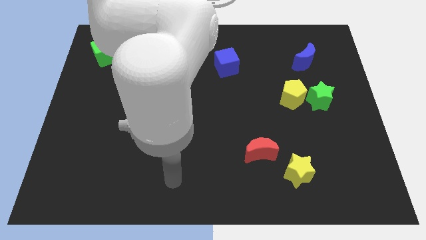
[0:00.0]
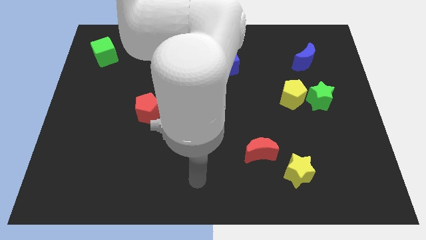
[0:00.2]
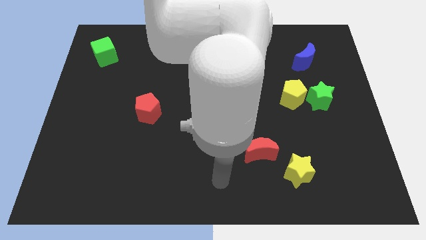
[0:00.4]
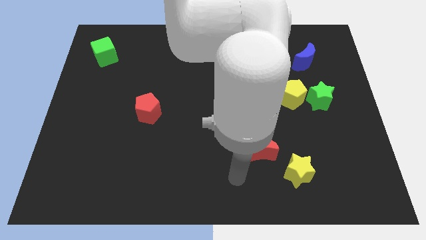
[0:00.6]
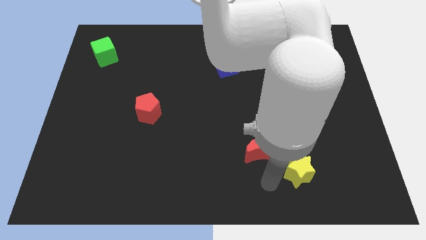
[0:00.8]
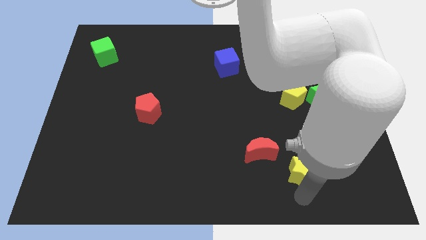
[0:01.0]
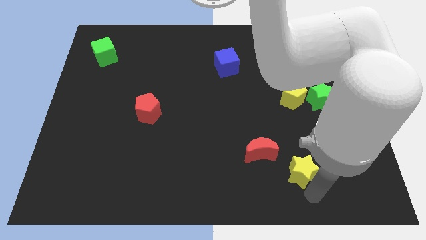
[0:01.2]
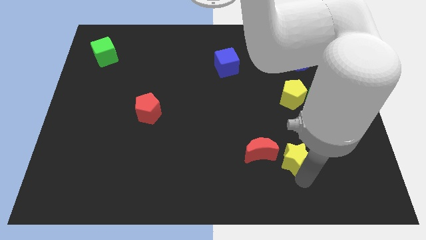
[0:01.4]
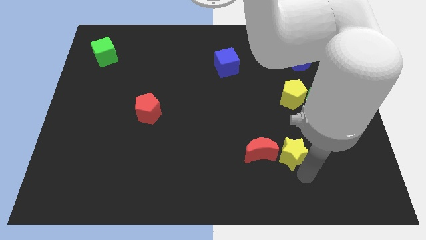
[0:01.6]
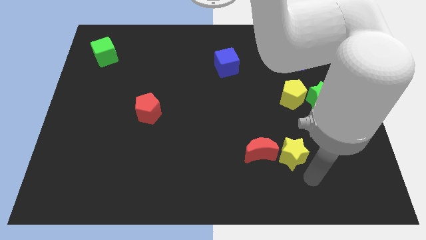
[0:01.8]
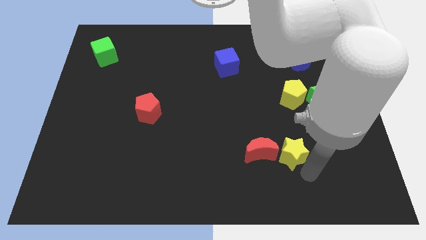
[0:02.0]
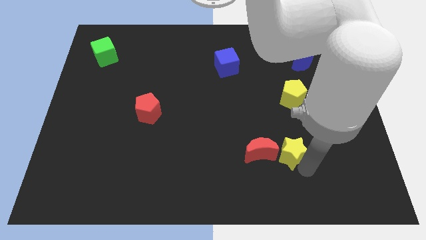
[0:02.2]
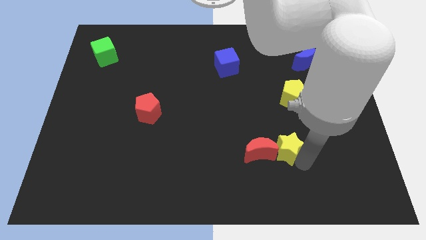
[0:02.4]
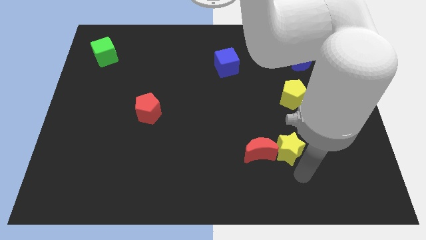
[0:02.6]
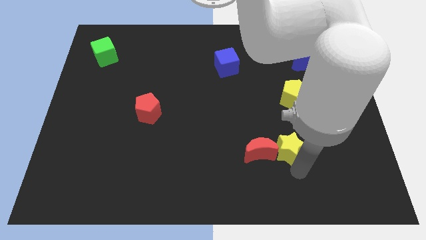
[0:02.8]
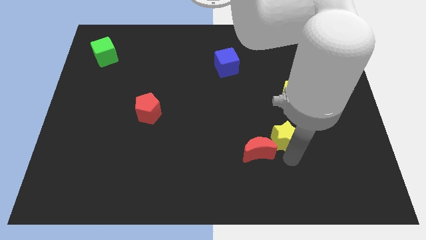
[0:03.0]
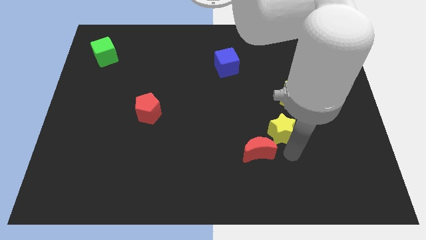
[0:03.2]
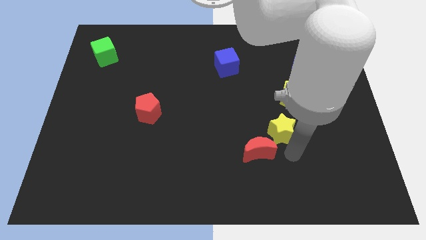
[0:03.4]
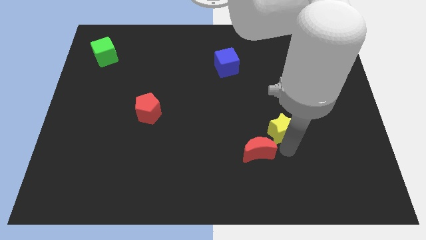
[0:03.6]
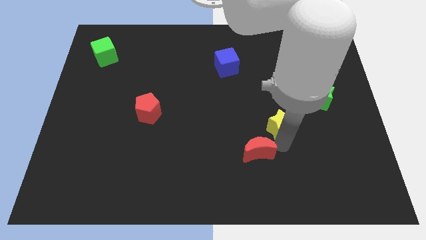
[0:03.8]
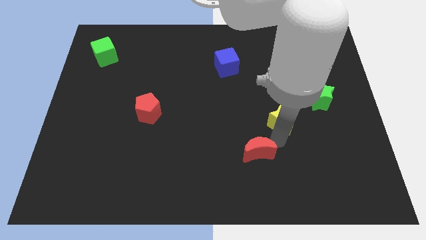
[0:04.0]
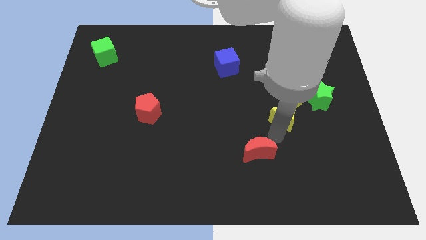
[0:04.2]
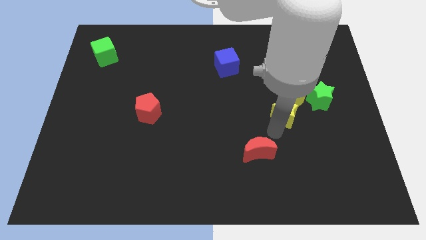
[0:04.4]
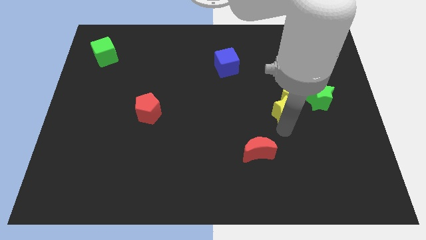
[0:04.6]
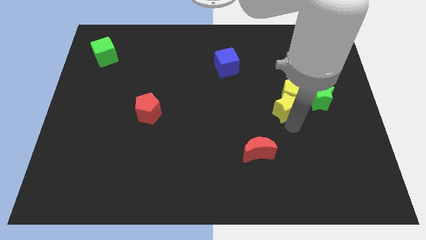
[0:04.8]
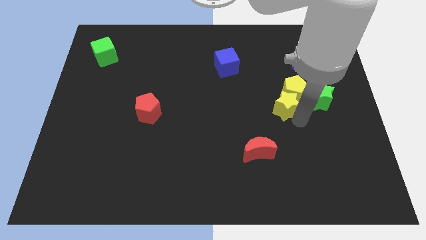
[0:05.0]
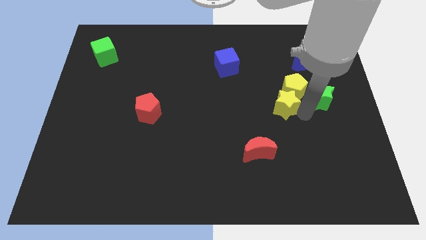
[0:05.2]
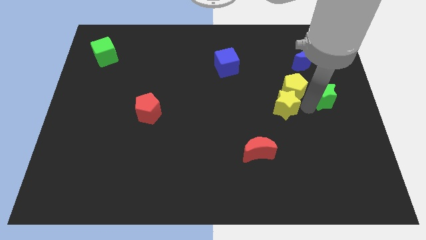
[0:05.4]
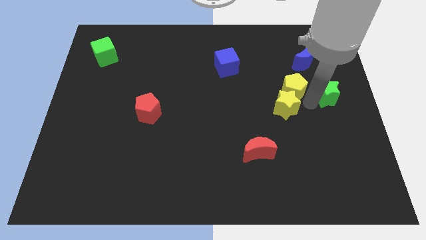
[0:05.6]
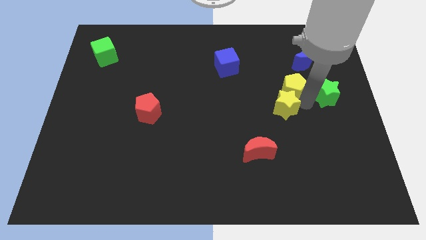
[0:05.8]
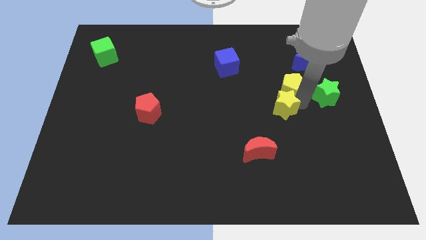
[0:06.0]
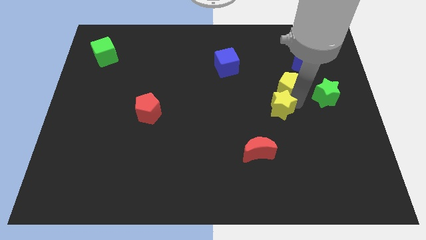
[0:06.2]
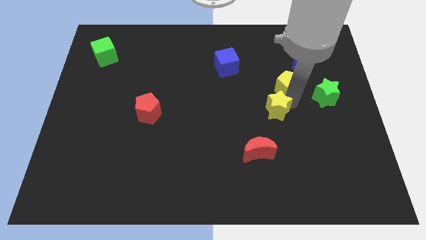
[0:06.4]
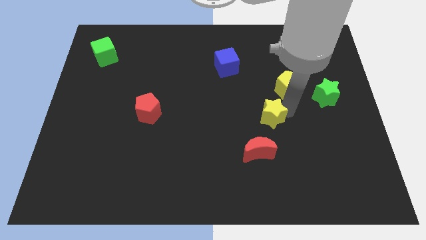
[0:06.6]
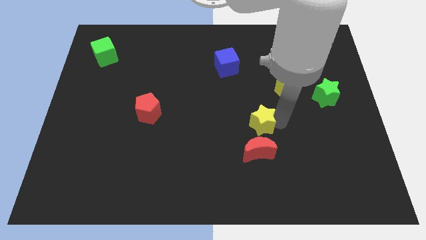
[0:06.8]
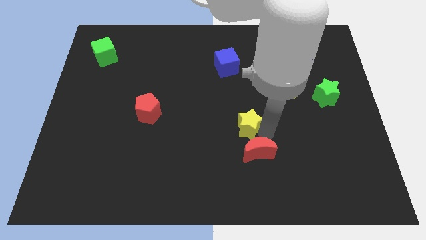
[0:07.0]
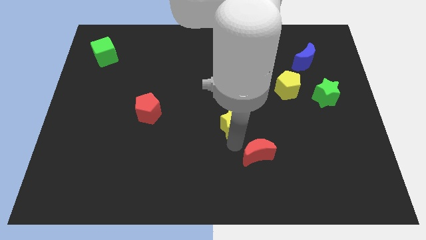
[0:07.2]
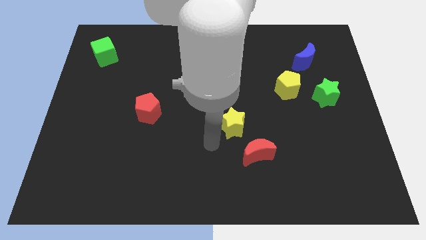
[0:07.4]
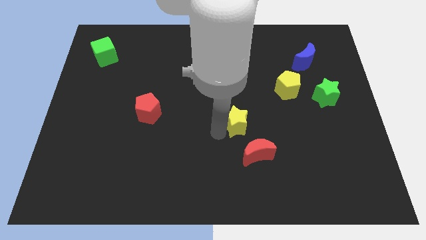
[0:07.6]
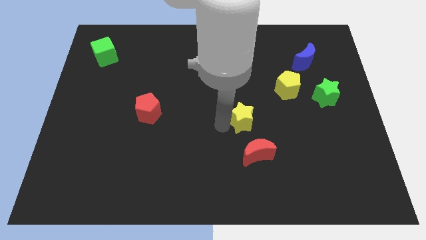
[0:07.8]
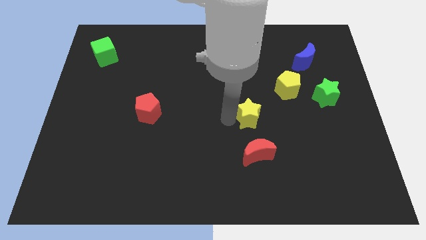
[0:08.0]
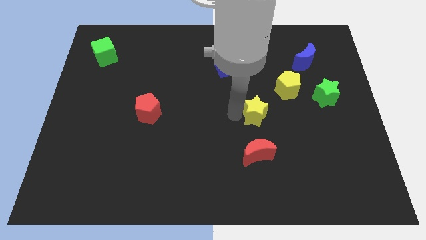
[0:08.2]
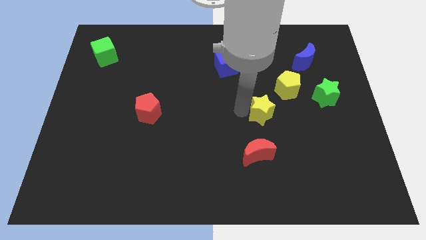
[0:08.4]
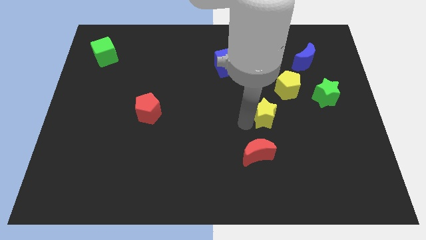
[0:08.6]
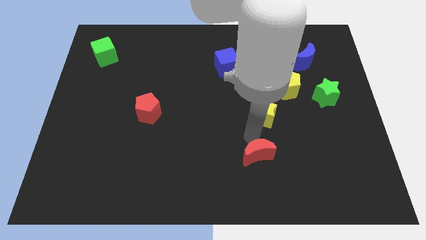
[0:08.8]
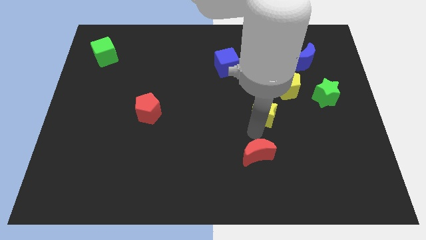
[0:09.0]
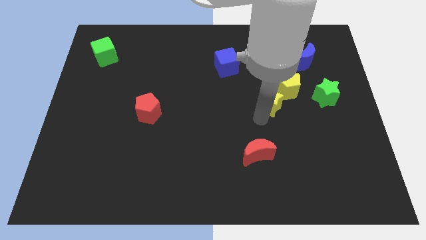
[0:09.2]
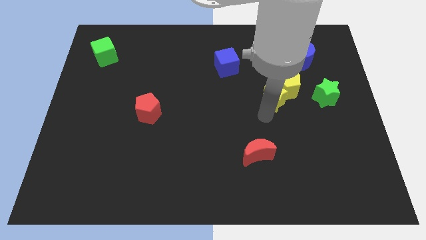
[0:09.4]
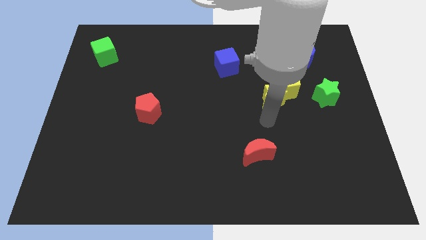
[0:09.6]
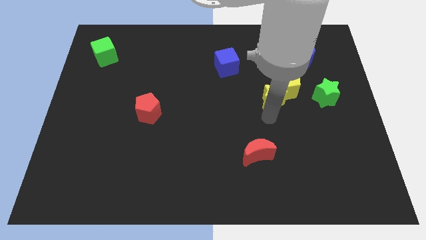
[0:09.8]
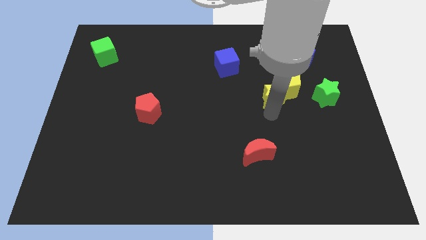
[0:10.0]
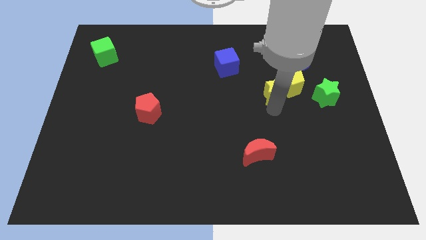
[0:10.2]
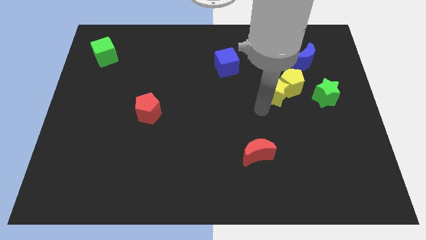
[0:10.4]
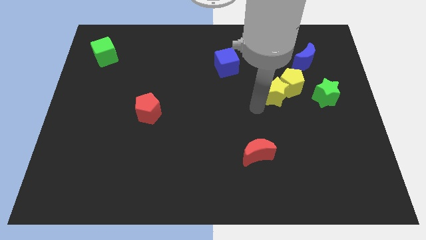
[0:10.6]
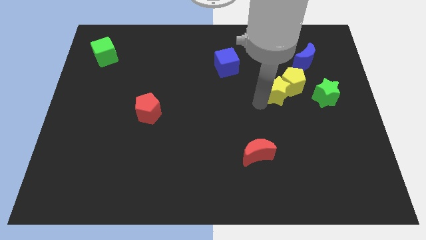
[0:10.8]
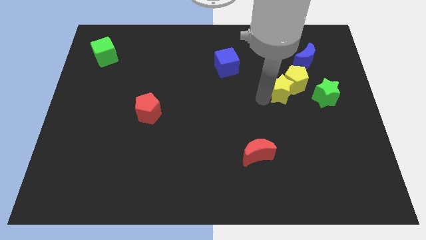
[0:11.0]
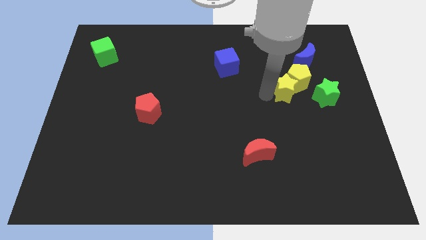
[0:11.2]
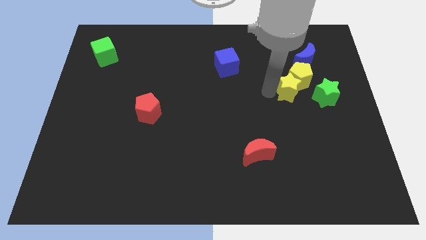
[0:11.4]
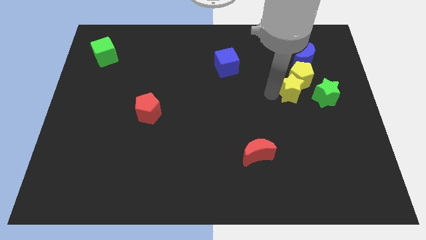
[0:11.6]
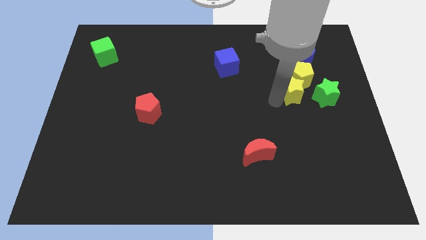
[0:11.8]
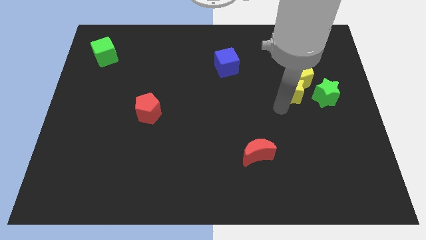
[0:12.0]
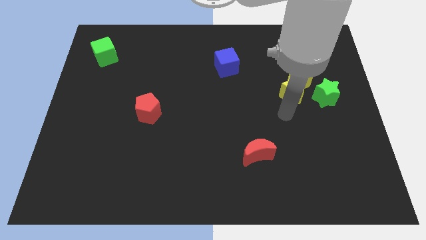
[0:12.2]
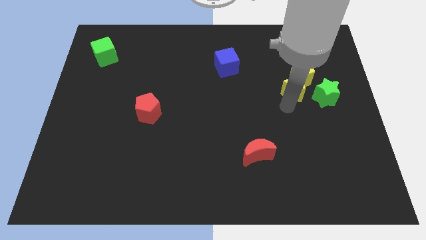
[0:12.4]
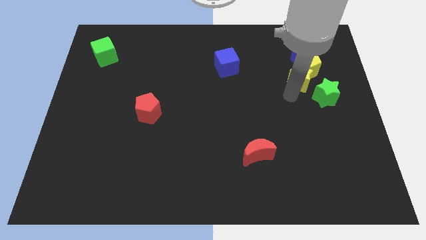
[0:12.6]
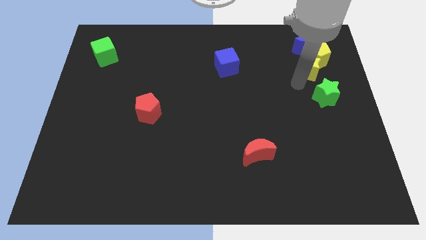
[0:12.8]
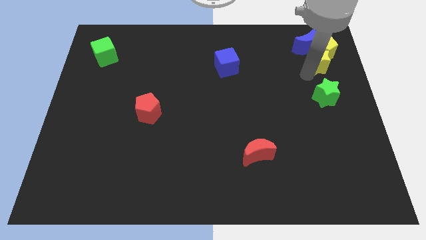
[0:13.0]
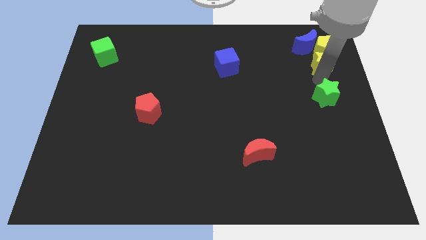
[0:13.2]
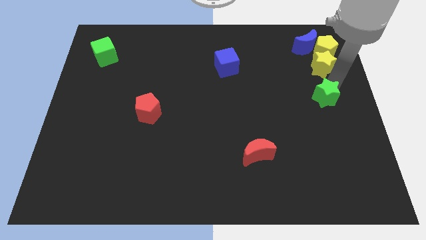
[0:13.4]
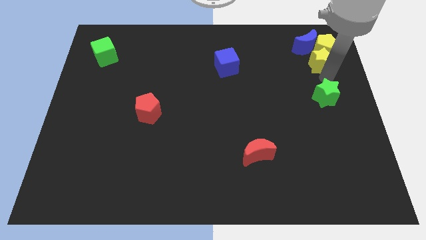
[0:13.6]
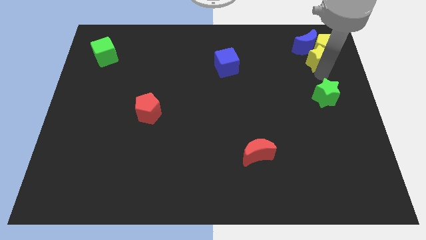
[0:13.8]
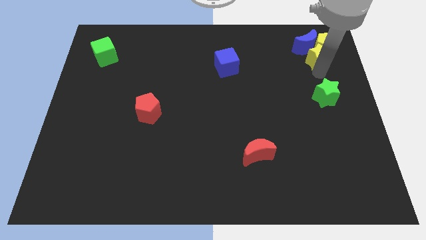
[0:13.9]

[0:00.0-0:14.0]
push the yellow star towards the blue moon

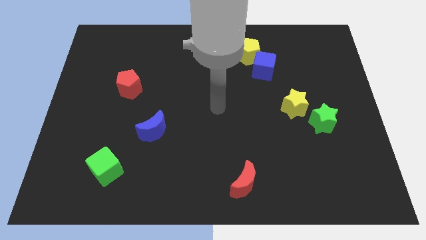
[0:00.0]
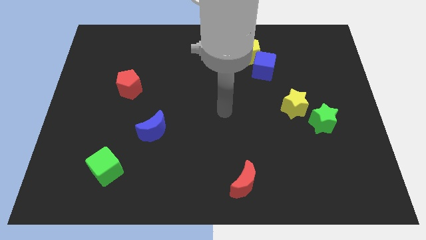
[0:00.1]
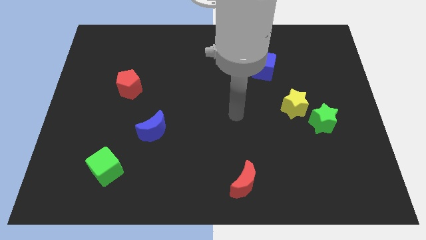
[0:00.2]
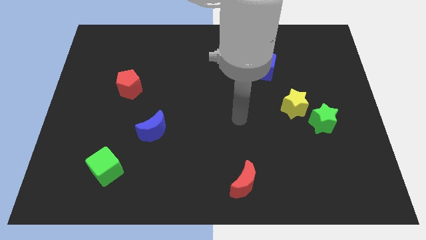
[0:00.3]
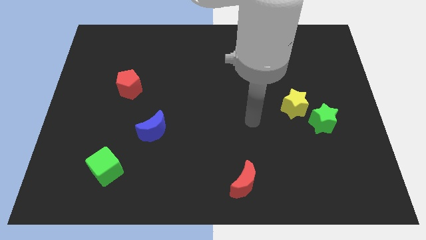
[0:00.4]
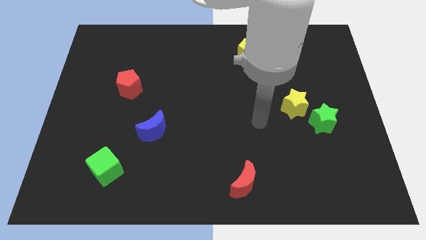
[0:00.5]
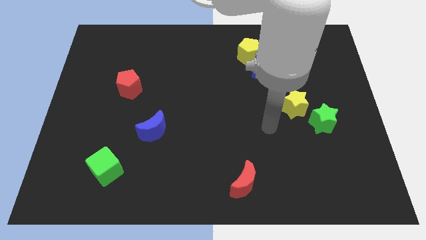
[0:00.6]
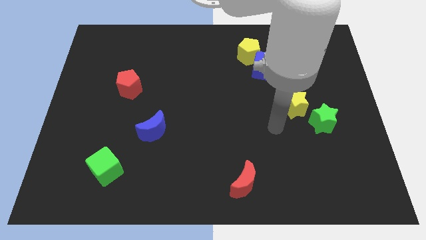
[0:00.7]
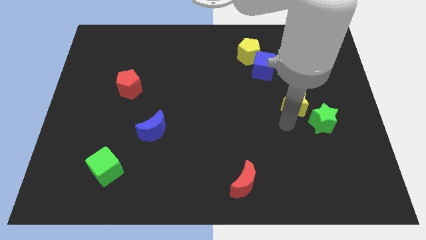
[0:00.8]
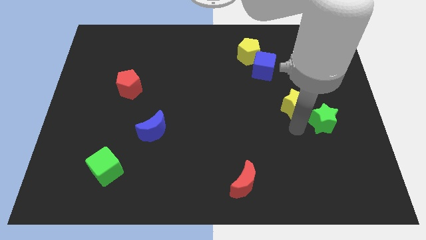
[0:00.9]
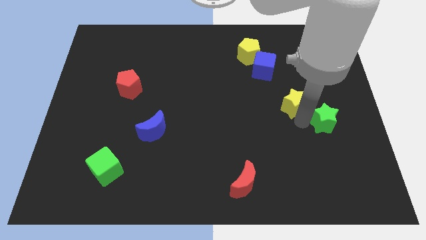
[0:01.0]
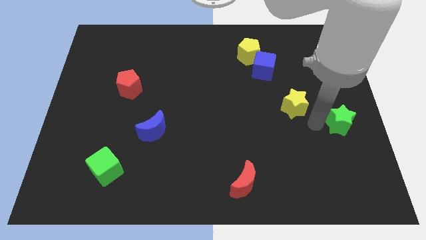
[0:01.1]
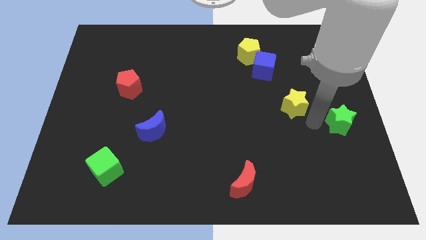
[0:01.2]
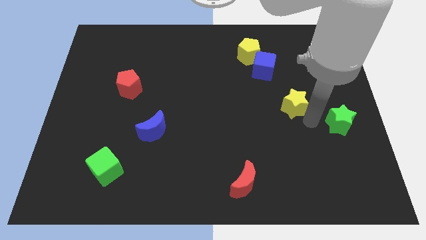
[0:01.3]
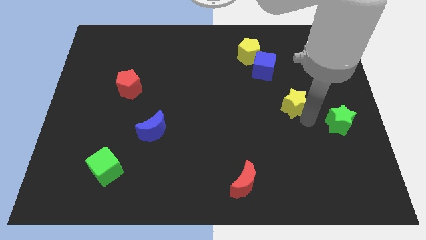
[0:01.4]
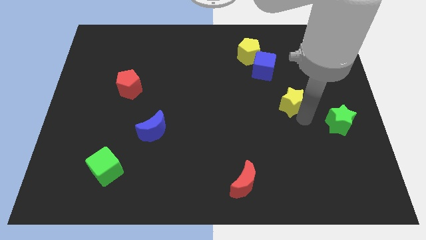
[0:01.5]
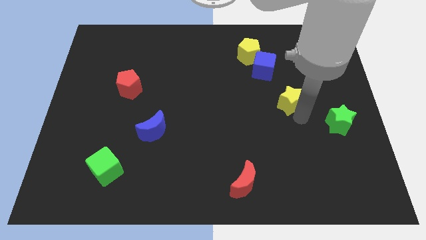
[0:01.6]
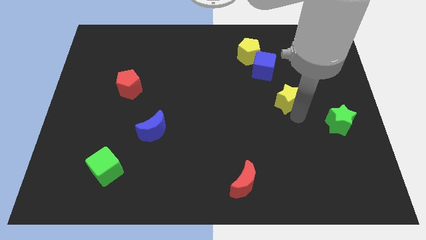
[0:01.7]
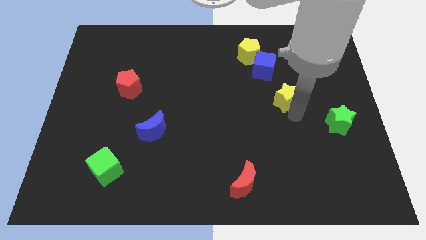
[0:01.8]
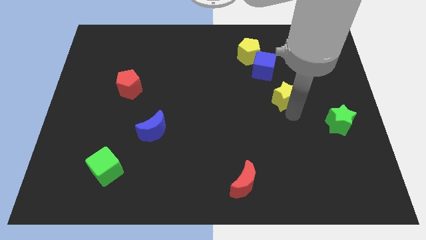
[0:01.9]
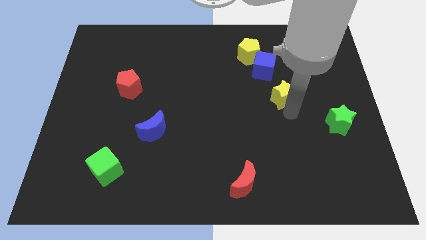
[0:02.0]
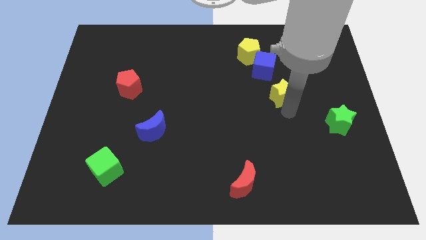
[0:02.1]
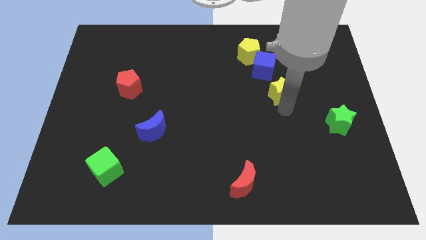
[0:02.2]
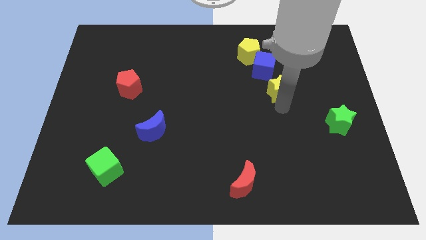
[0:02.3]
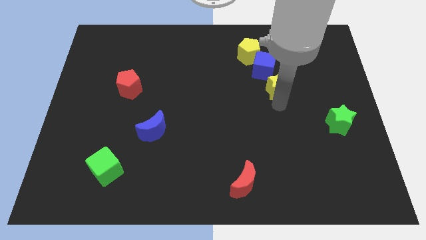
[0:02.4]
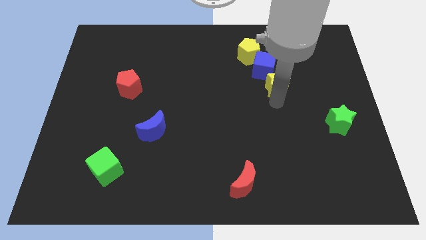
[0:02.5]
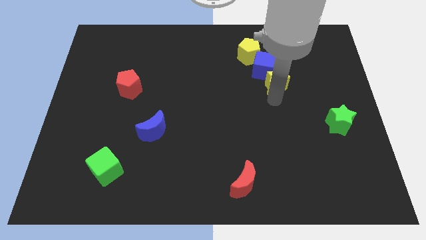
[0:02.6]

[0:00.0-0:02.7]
move the yellow star towards the blue cube
